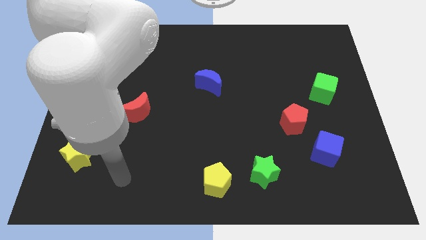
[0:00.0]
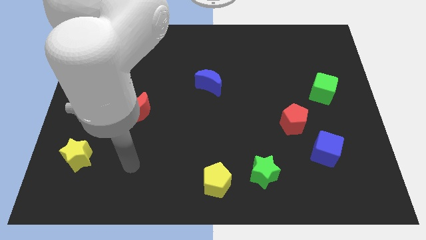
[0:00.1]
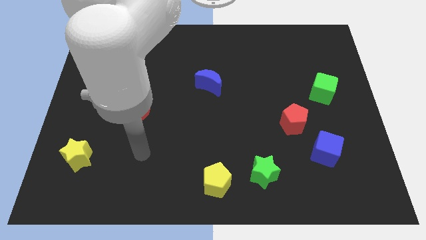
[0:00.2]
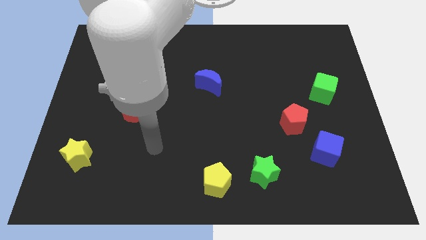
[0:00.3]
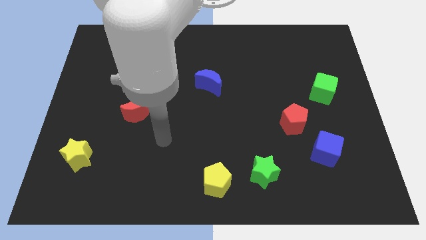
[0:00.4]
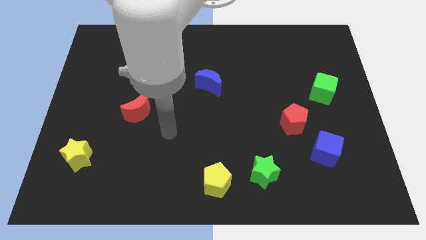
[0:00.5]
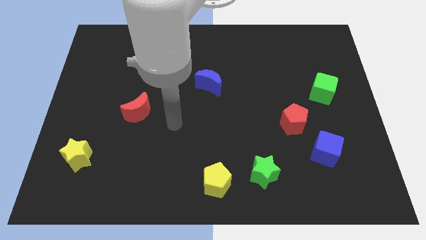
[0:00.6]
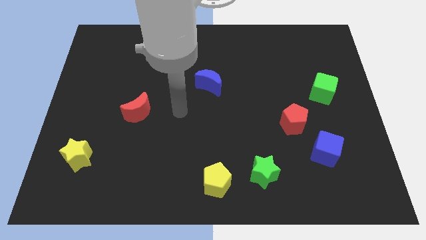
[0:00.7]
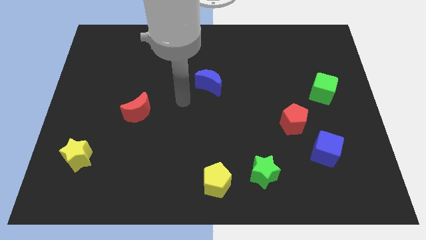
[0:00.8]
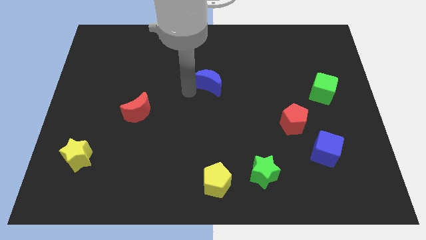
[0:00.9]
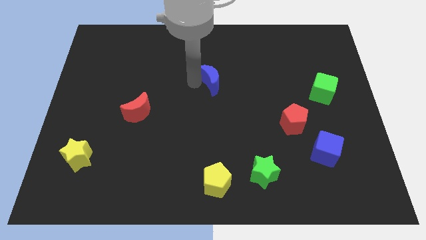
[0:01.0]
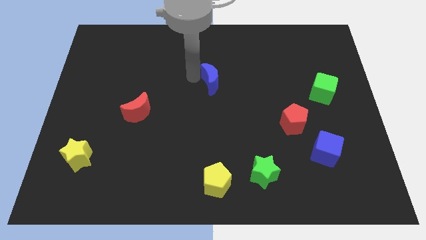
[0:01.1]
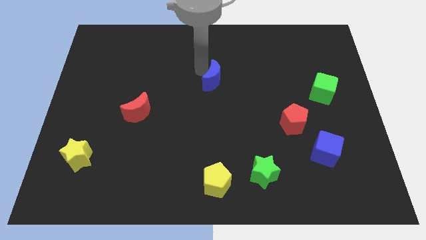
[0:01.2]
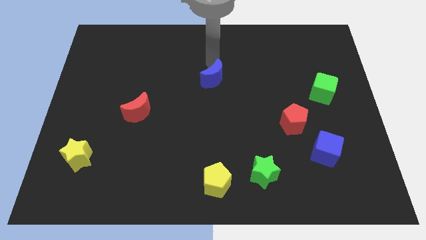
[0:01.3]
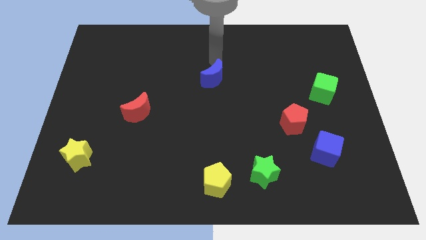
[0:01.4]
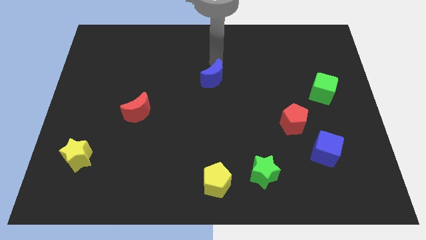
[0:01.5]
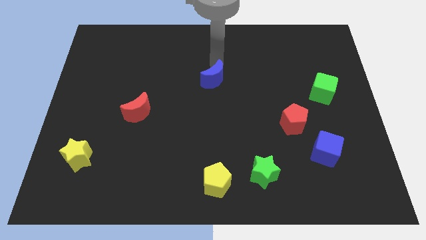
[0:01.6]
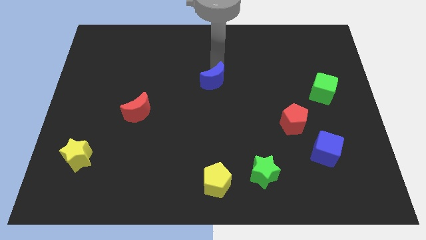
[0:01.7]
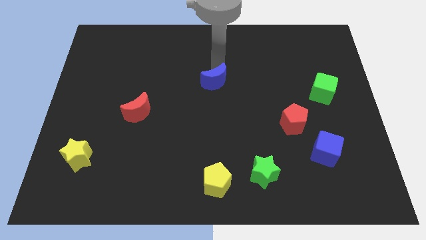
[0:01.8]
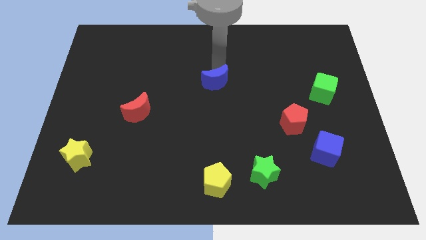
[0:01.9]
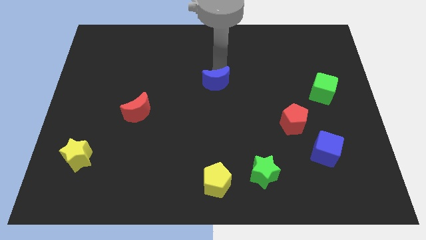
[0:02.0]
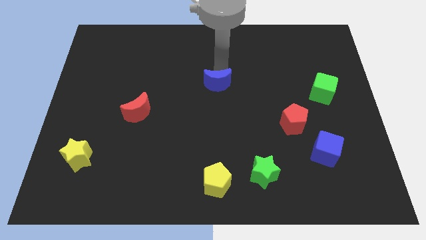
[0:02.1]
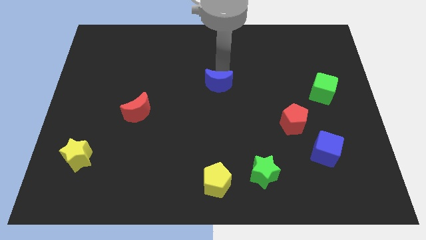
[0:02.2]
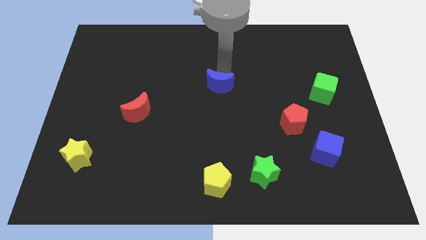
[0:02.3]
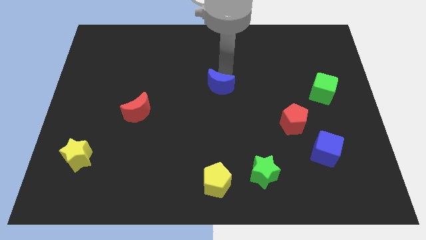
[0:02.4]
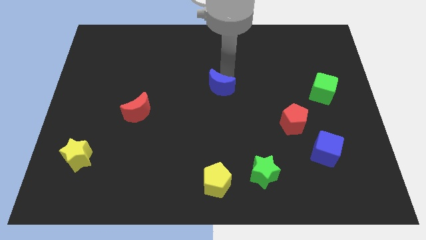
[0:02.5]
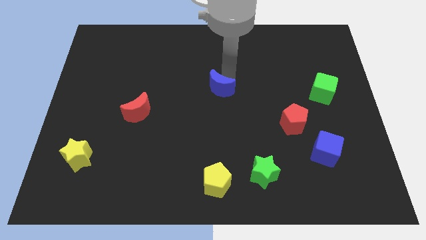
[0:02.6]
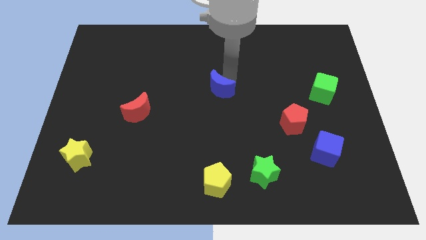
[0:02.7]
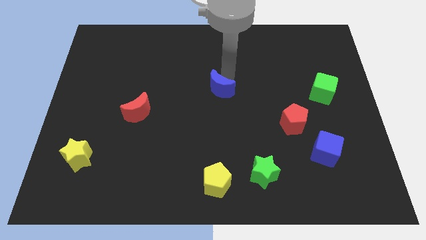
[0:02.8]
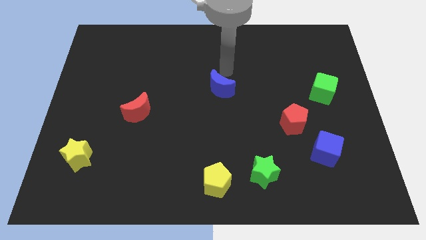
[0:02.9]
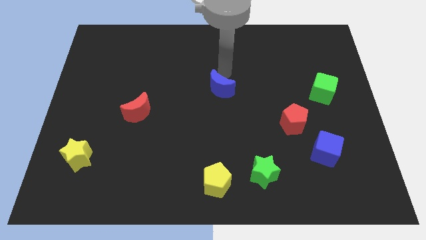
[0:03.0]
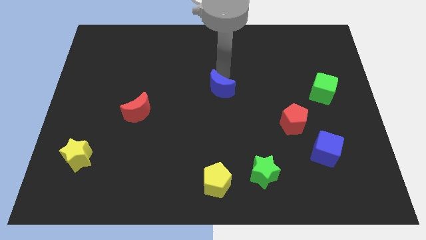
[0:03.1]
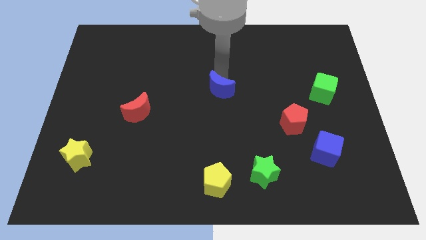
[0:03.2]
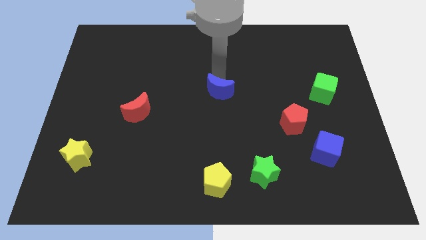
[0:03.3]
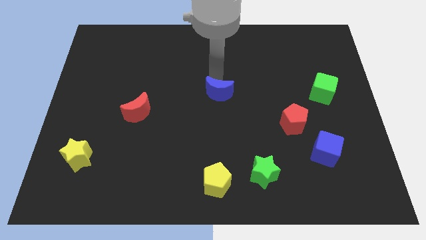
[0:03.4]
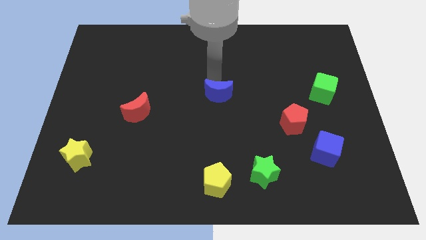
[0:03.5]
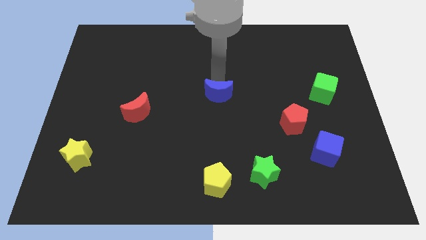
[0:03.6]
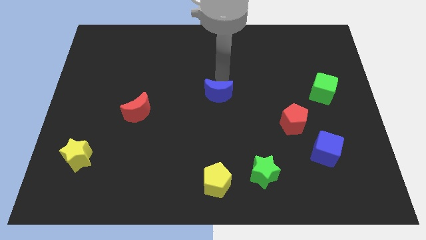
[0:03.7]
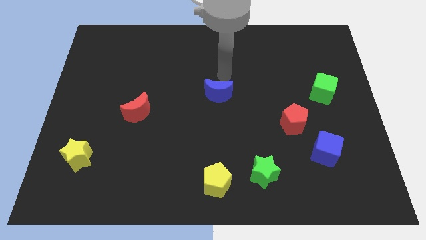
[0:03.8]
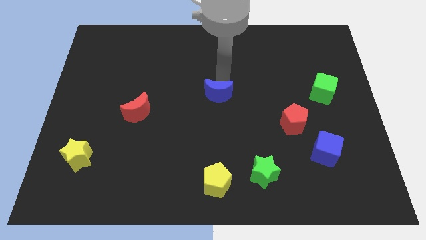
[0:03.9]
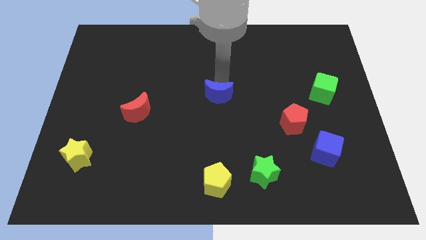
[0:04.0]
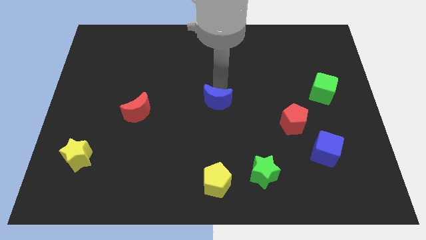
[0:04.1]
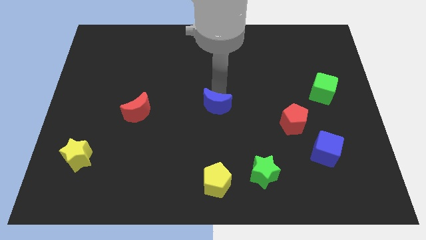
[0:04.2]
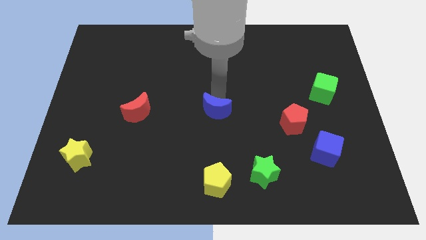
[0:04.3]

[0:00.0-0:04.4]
move the blue moon slightly down

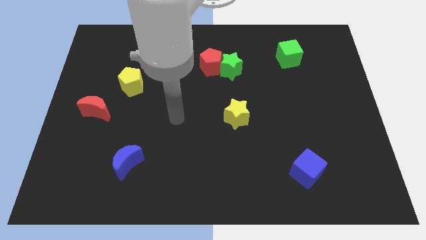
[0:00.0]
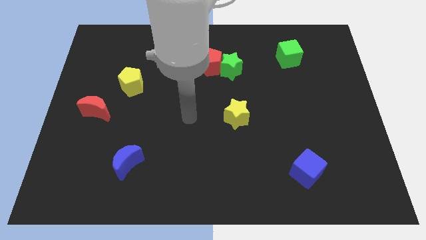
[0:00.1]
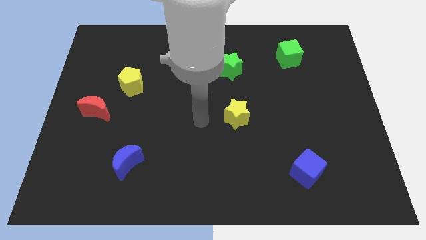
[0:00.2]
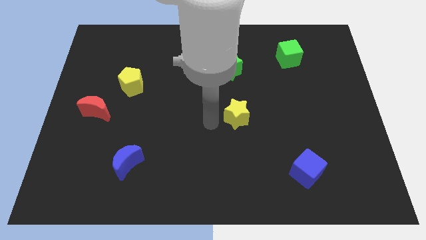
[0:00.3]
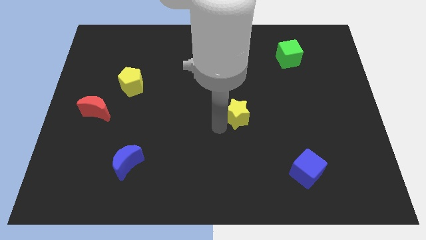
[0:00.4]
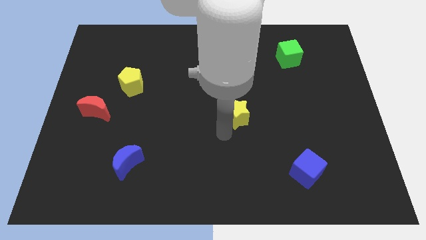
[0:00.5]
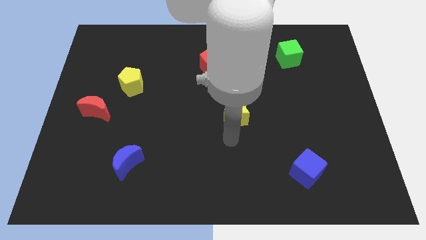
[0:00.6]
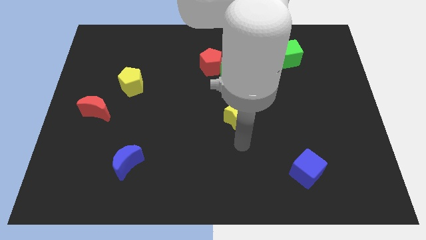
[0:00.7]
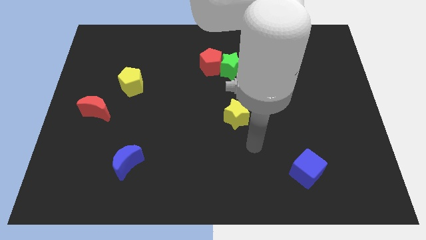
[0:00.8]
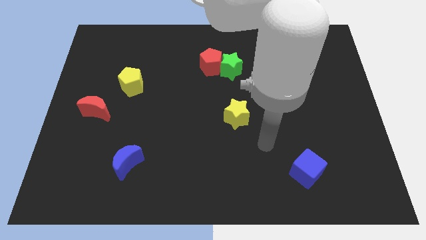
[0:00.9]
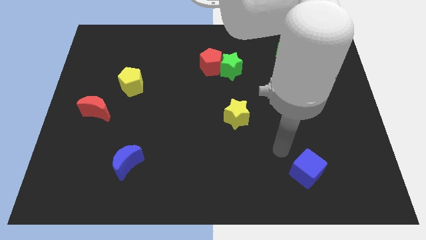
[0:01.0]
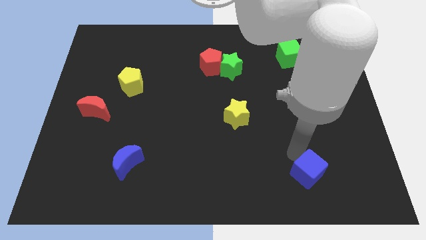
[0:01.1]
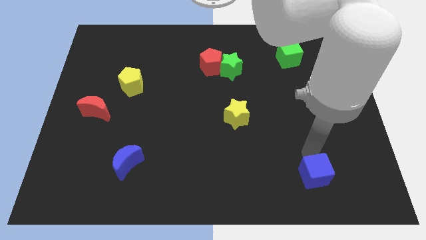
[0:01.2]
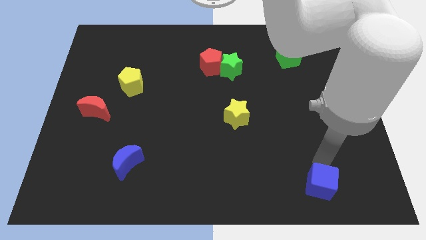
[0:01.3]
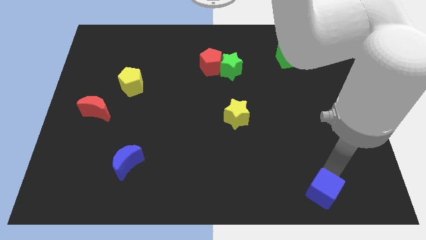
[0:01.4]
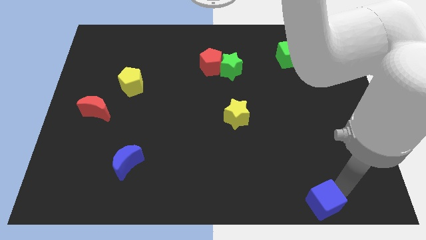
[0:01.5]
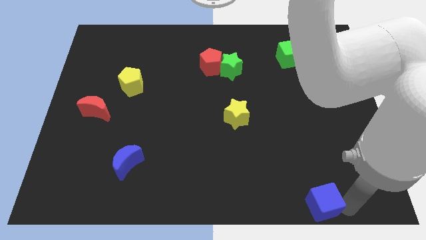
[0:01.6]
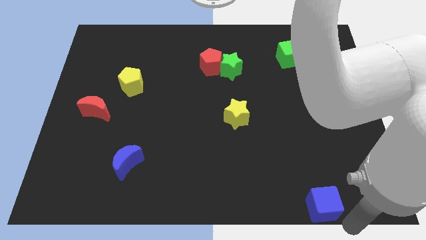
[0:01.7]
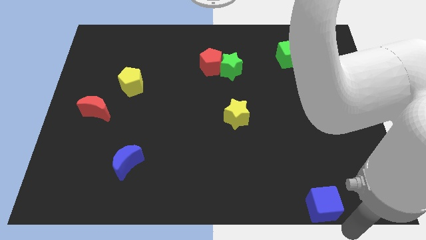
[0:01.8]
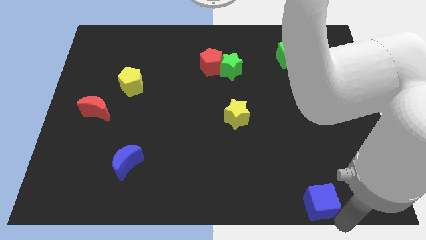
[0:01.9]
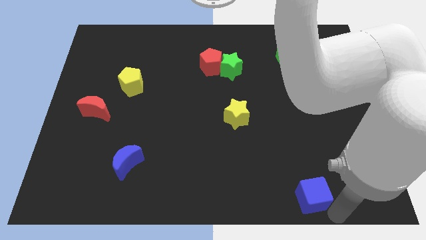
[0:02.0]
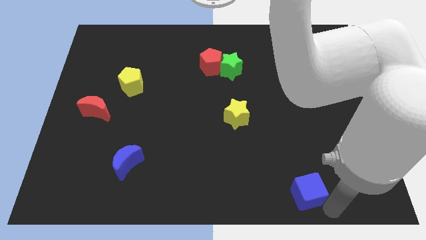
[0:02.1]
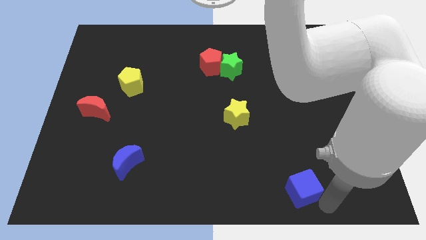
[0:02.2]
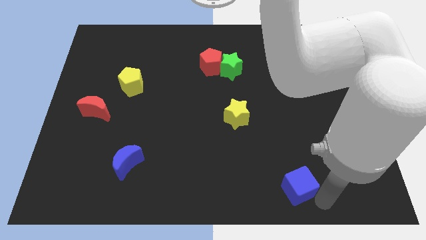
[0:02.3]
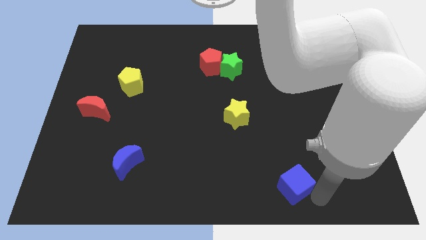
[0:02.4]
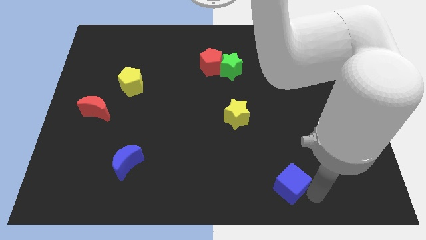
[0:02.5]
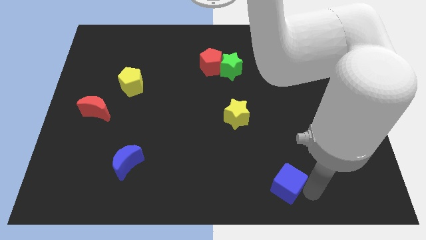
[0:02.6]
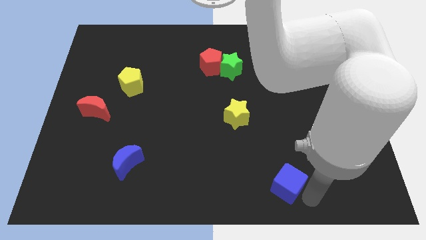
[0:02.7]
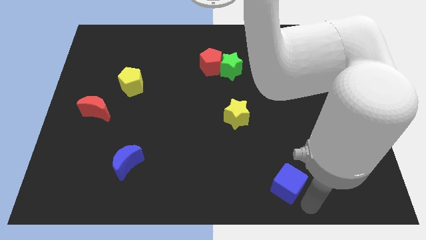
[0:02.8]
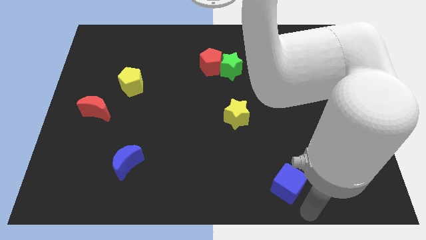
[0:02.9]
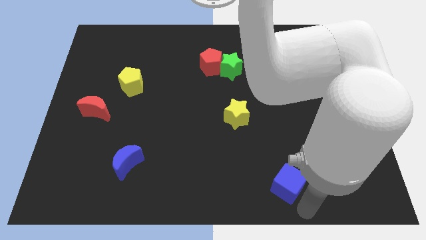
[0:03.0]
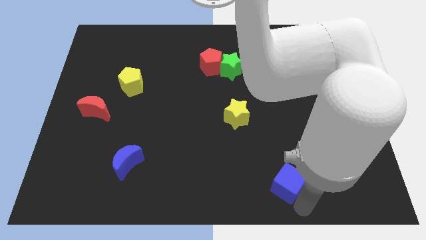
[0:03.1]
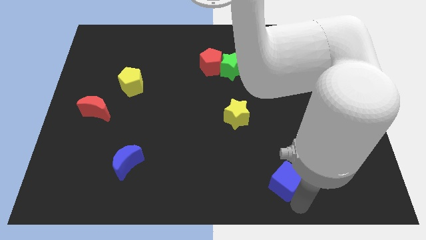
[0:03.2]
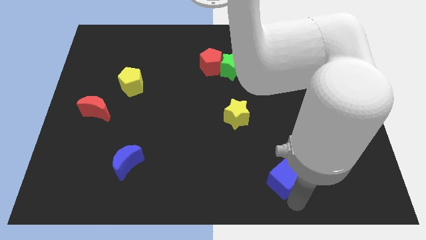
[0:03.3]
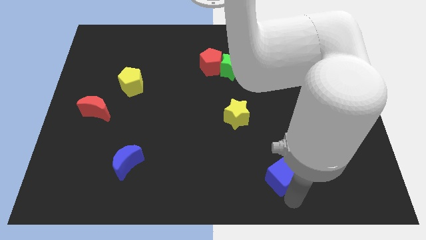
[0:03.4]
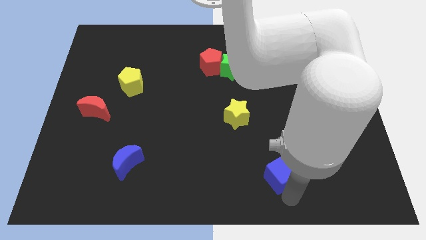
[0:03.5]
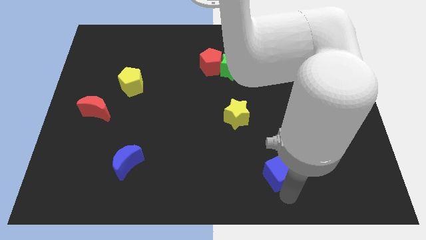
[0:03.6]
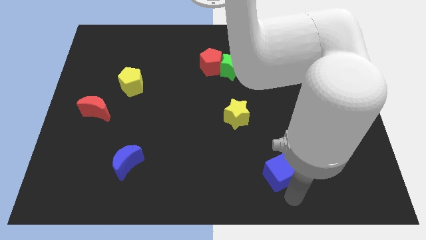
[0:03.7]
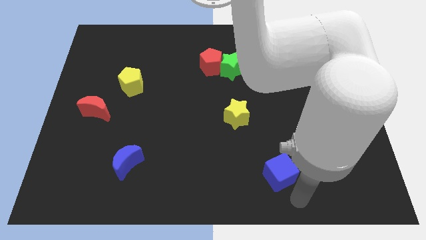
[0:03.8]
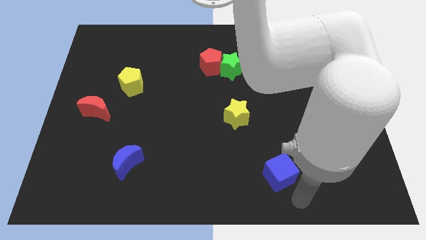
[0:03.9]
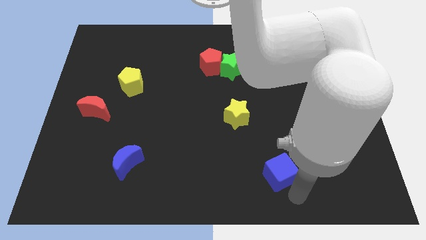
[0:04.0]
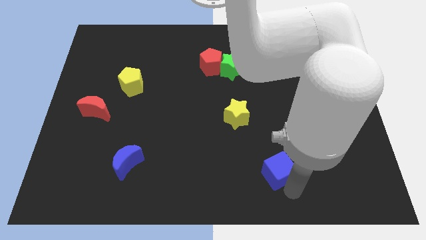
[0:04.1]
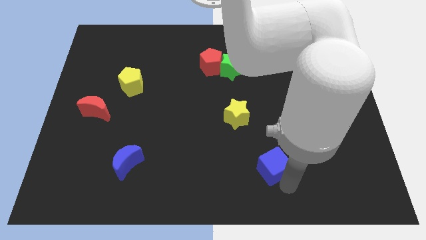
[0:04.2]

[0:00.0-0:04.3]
move the blue cube slightly to the left
